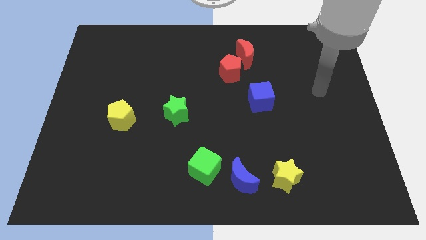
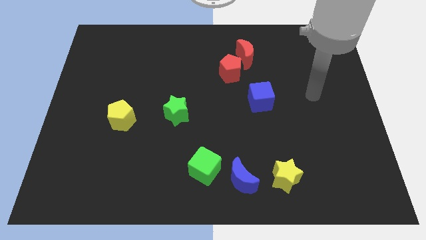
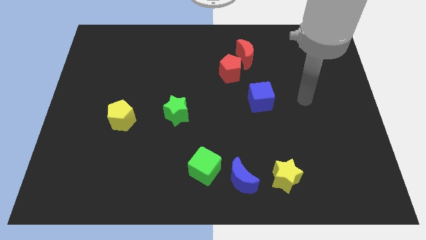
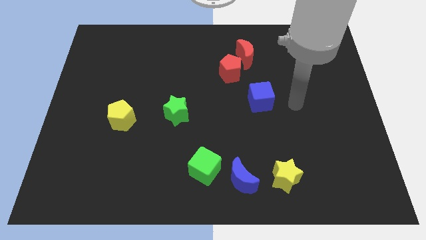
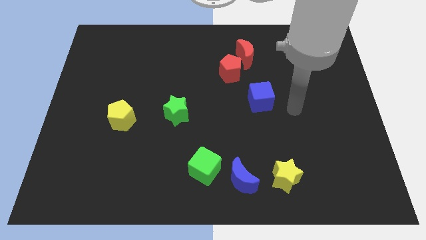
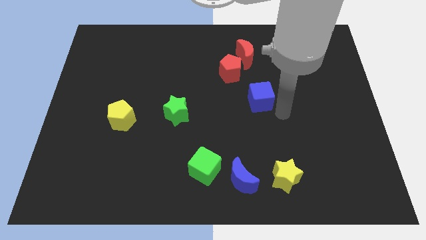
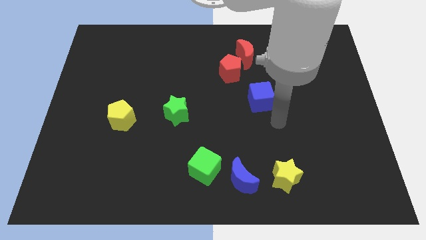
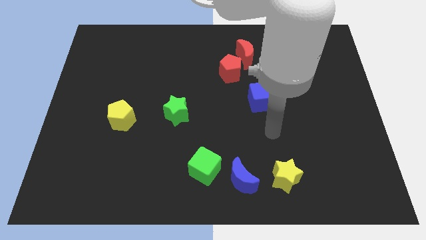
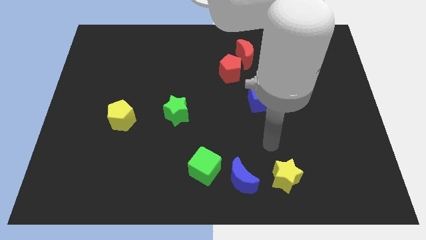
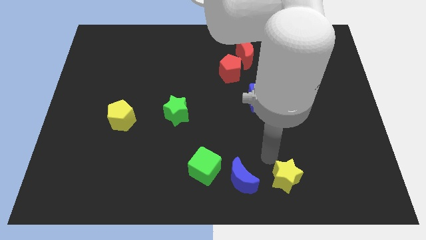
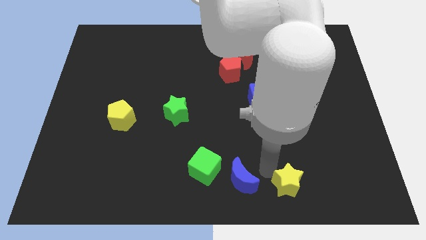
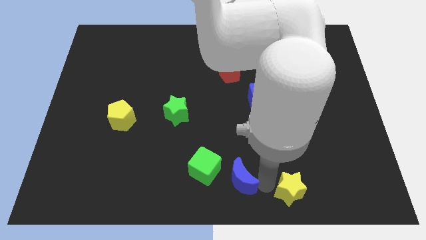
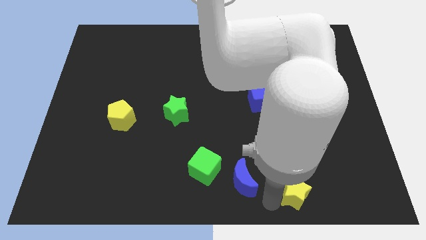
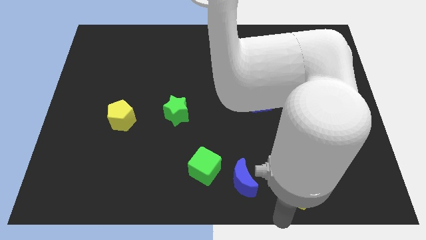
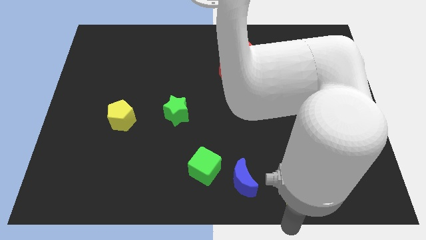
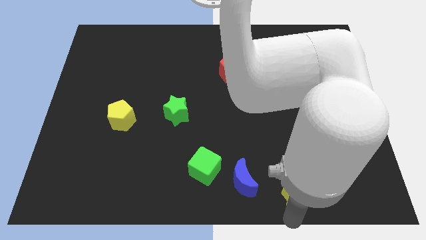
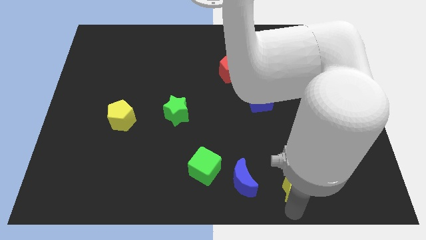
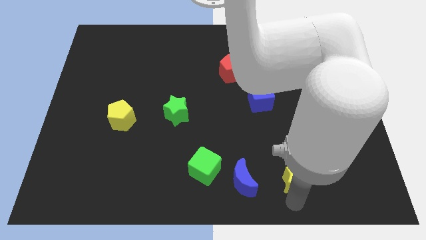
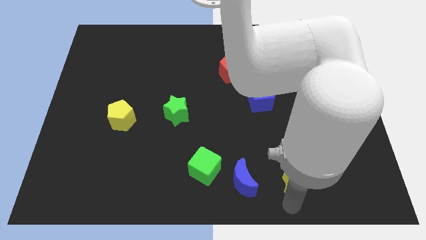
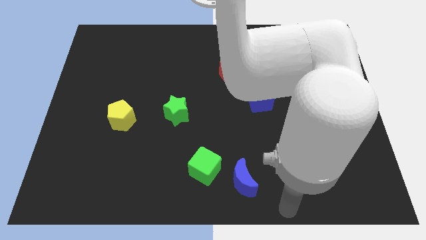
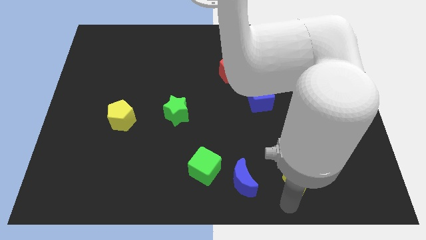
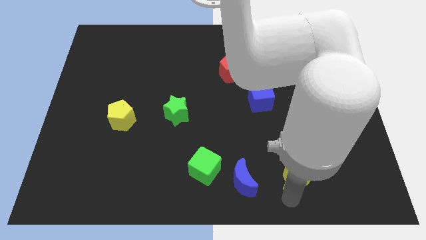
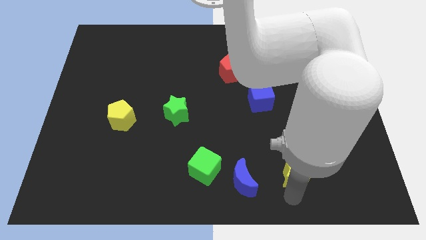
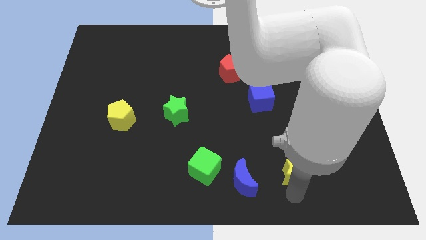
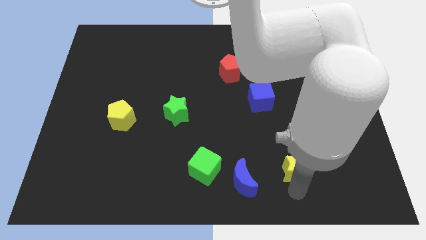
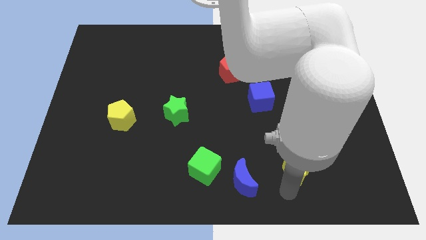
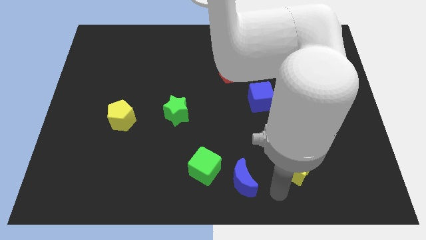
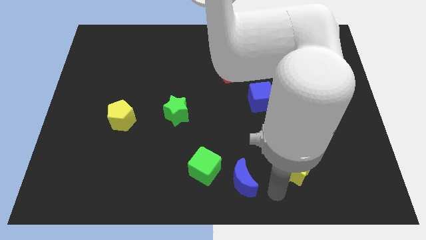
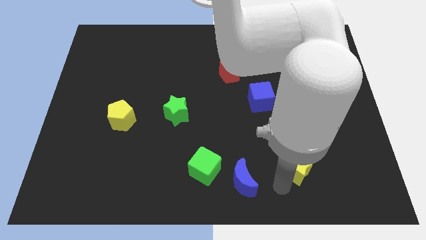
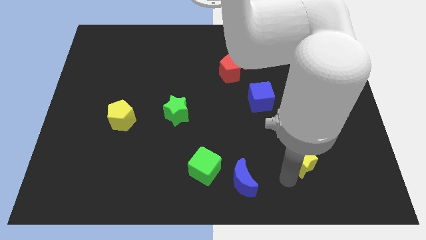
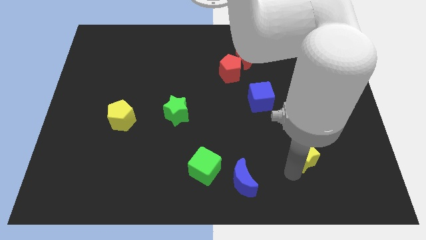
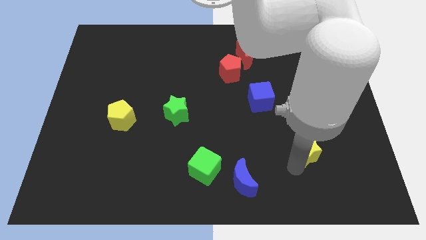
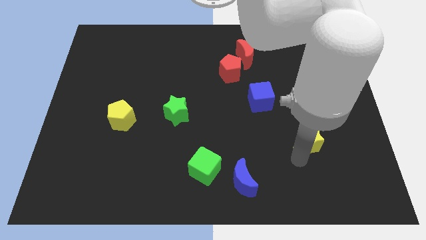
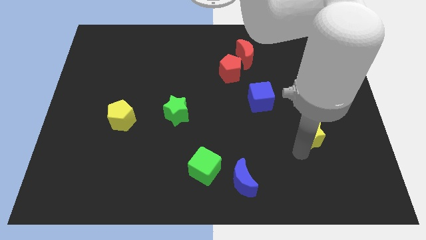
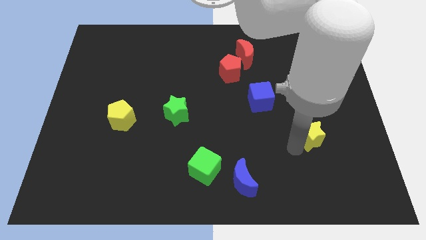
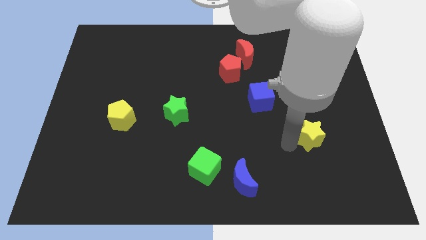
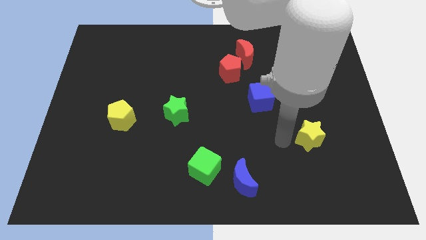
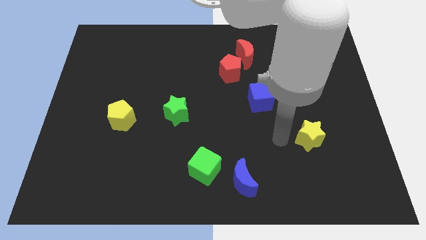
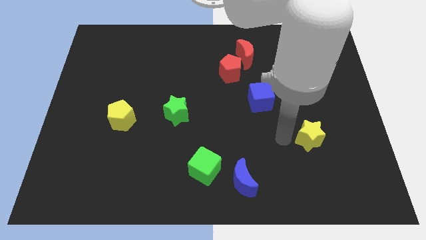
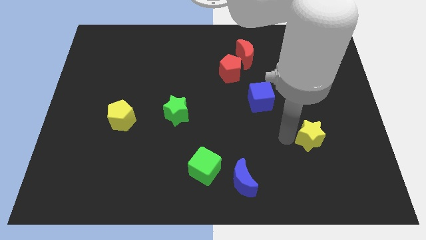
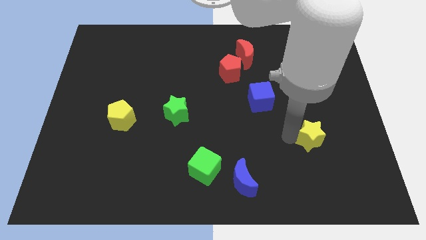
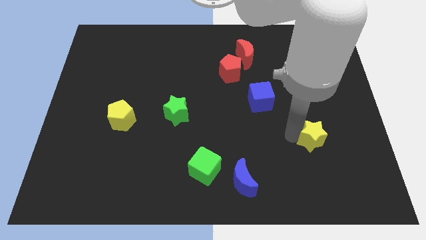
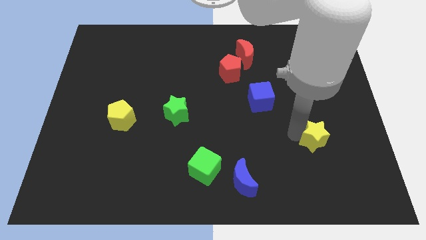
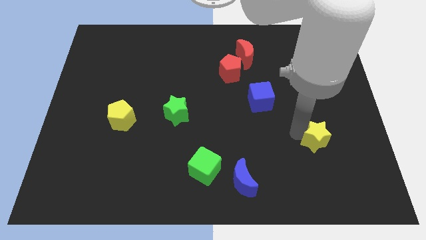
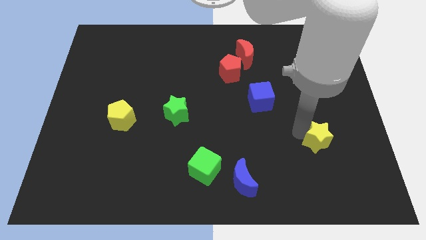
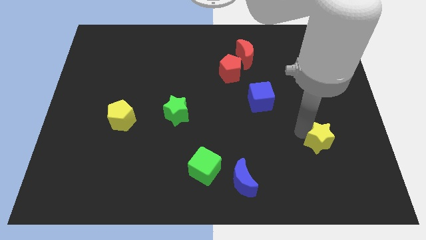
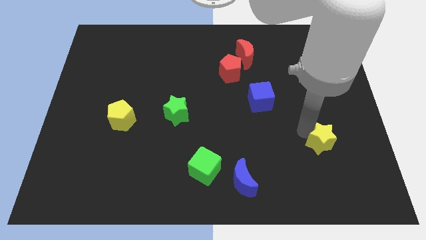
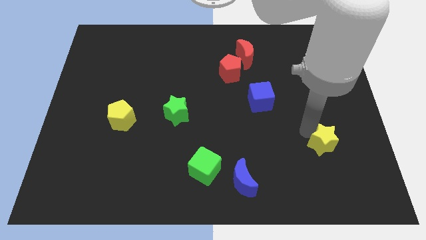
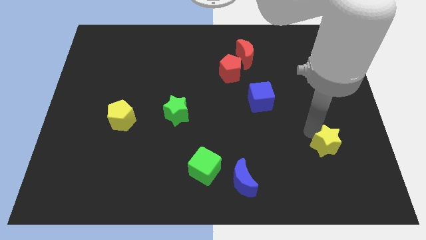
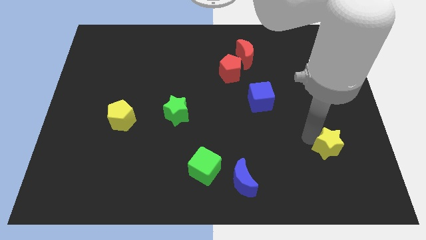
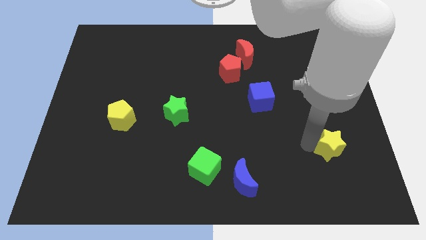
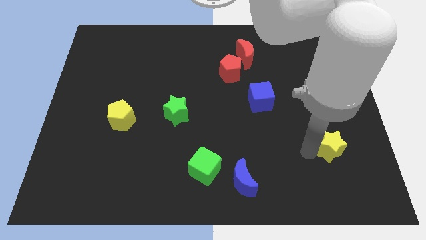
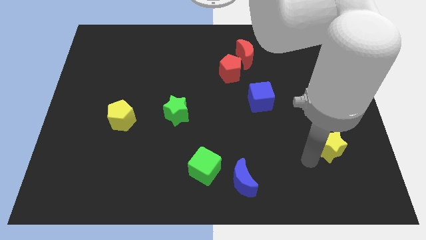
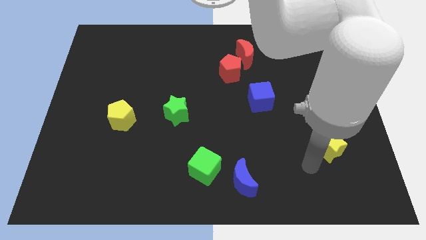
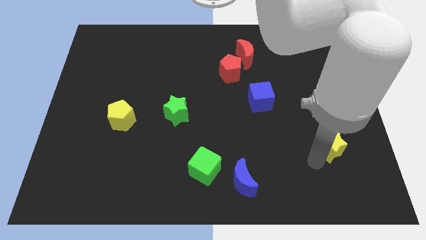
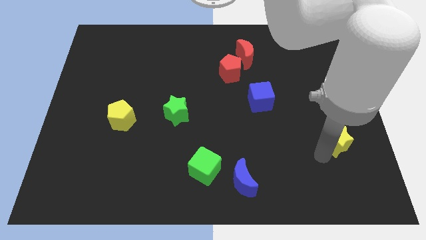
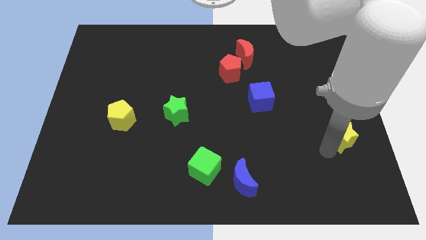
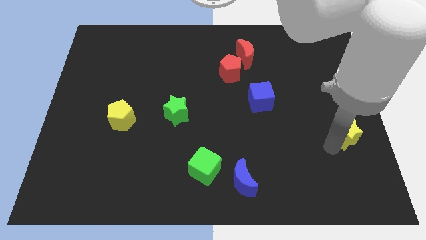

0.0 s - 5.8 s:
move the yellow star to the right side

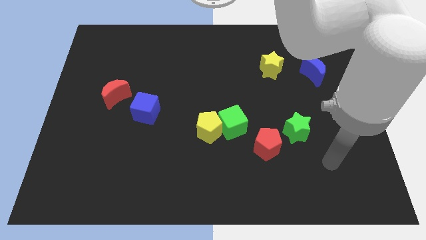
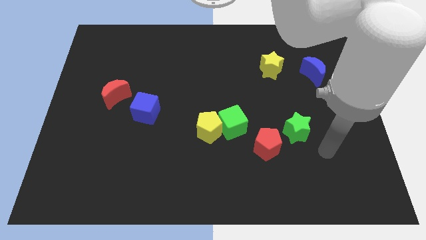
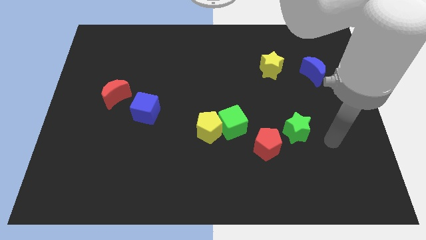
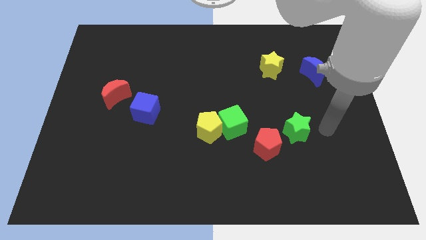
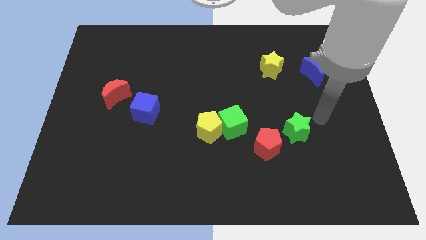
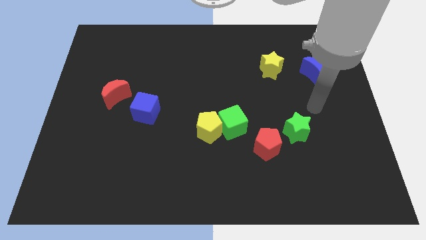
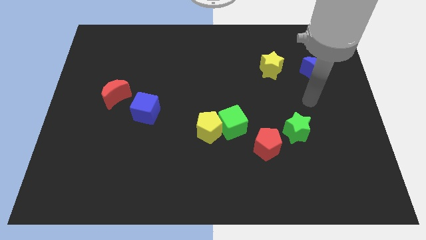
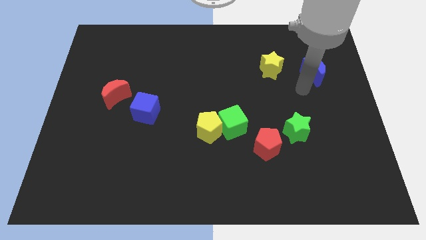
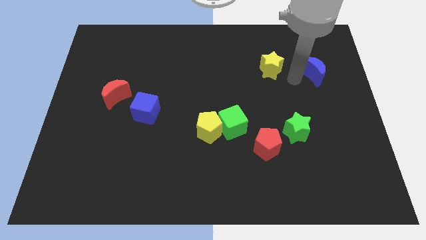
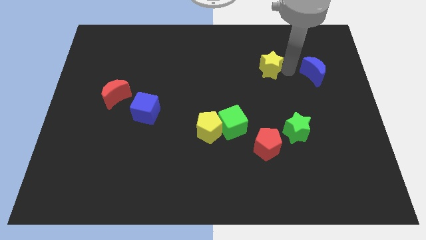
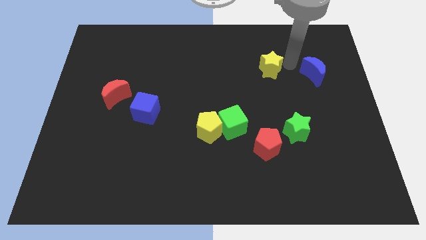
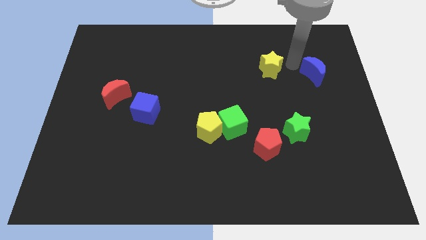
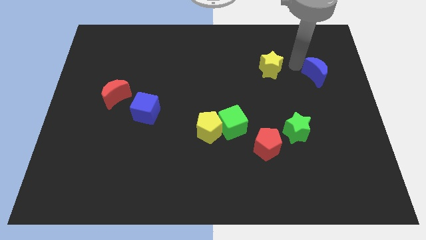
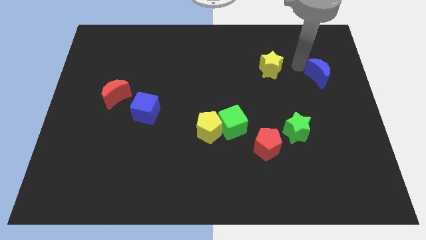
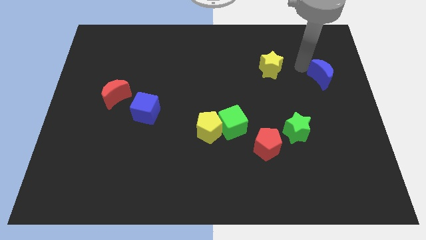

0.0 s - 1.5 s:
push the blue moon to the right side of the board
